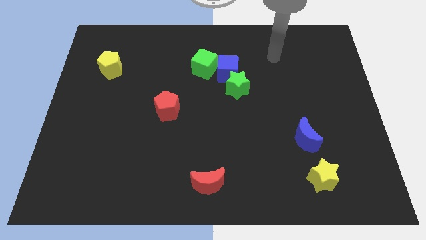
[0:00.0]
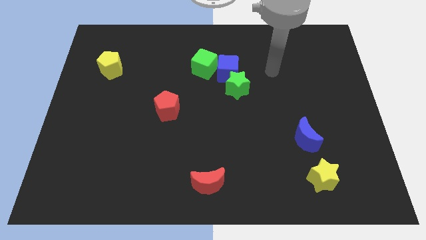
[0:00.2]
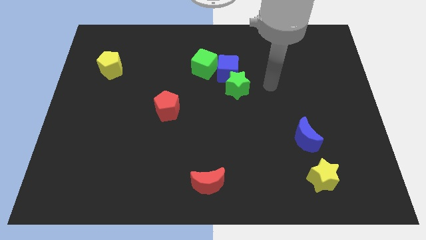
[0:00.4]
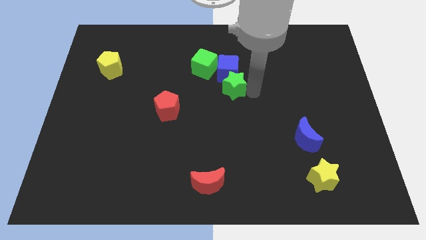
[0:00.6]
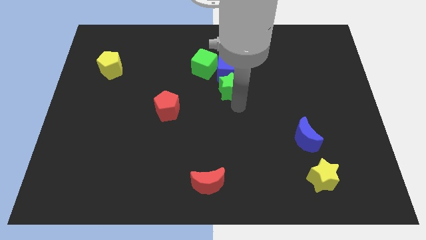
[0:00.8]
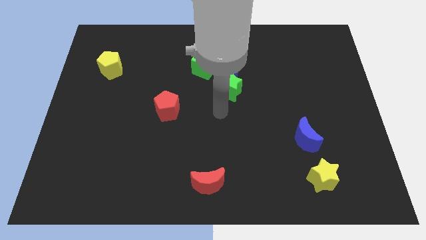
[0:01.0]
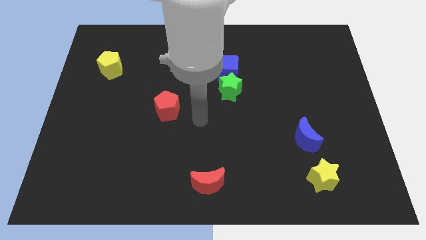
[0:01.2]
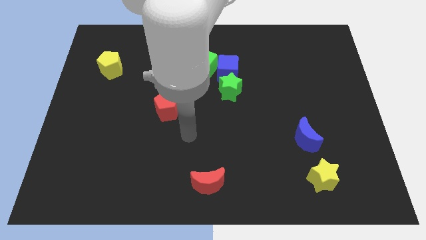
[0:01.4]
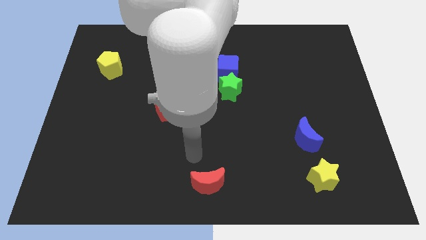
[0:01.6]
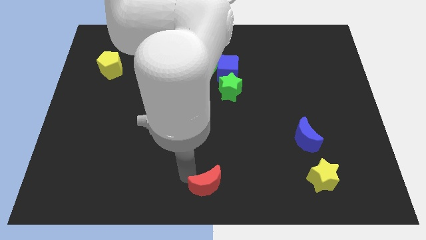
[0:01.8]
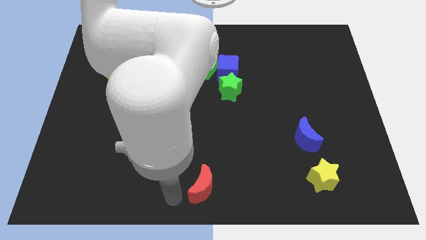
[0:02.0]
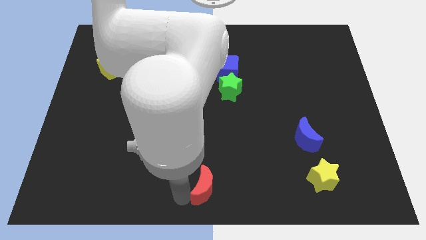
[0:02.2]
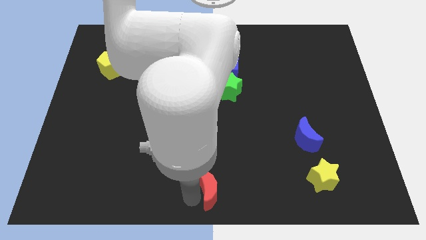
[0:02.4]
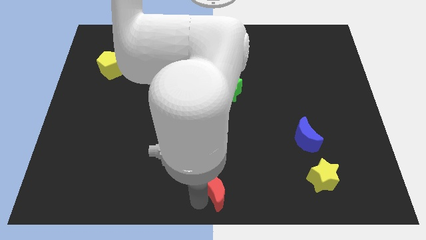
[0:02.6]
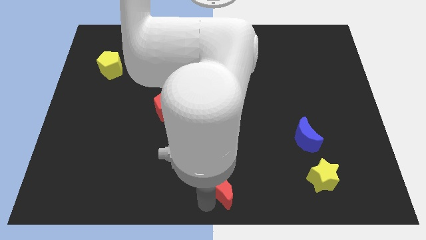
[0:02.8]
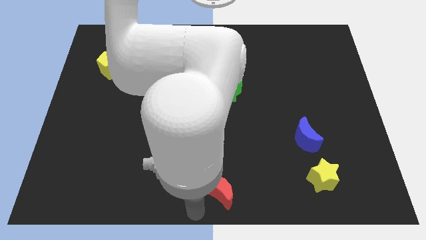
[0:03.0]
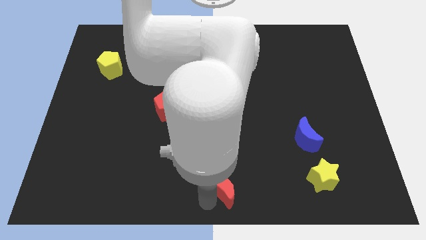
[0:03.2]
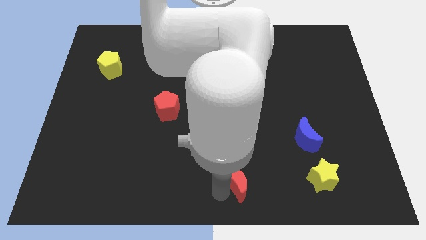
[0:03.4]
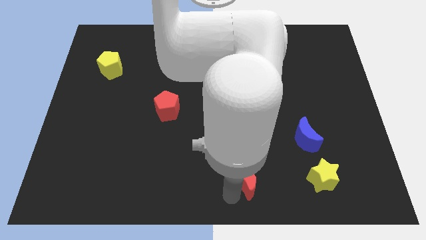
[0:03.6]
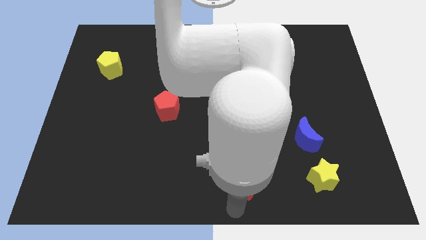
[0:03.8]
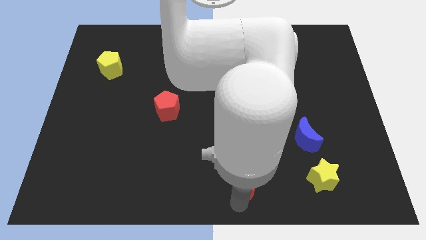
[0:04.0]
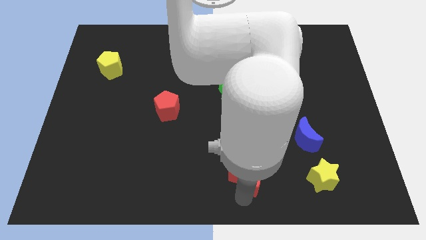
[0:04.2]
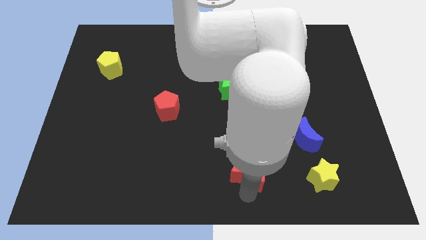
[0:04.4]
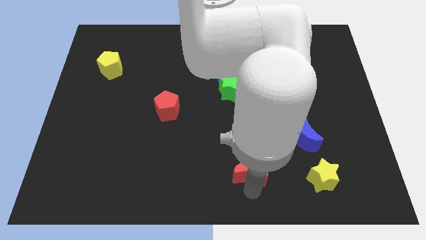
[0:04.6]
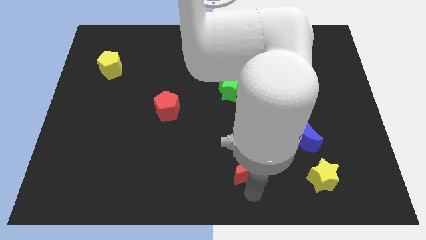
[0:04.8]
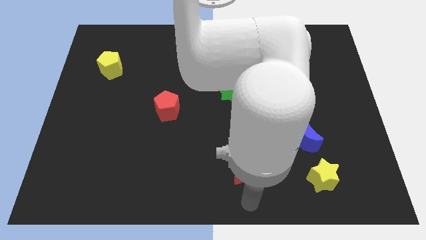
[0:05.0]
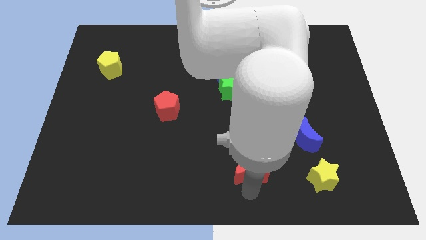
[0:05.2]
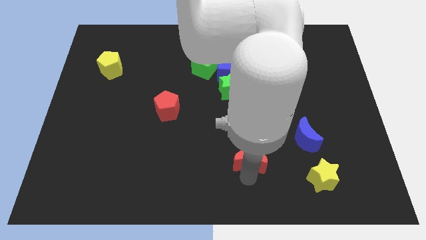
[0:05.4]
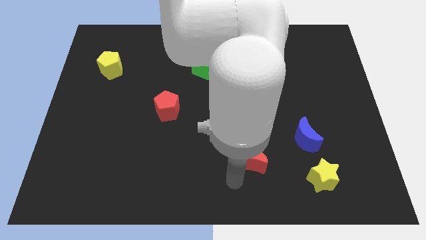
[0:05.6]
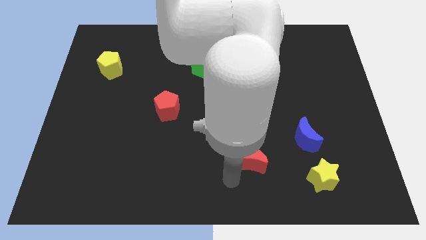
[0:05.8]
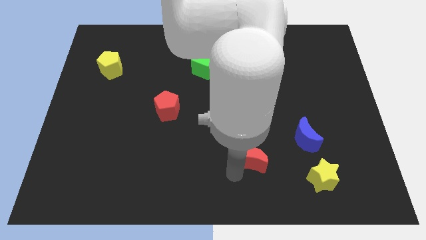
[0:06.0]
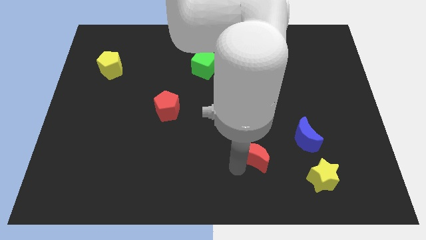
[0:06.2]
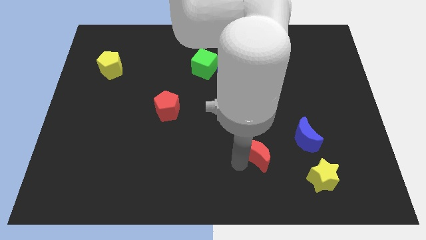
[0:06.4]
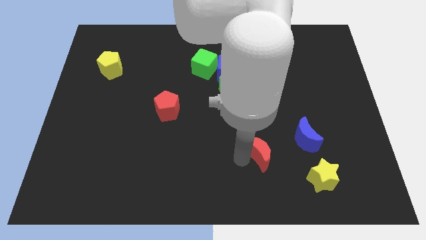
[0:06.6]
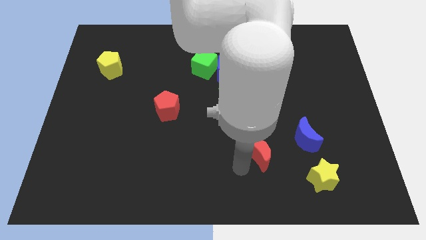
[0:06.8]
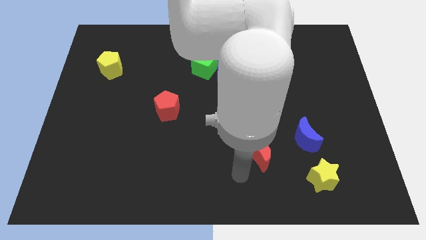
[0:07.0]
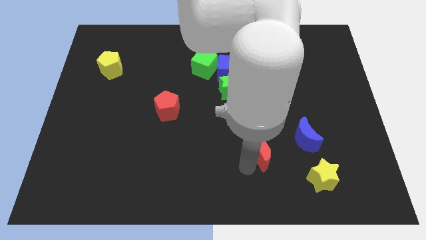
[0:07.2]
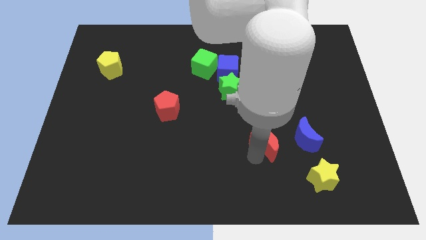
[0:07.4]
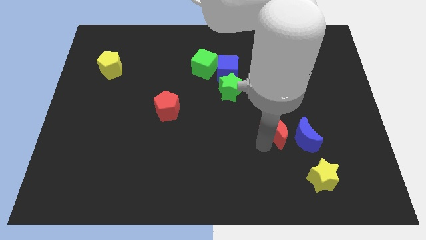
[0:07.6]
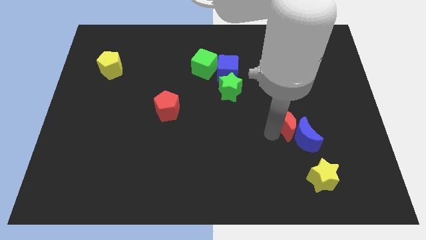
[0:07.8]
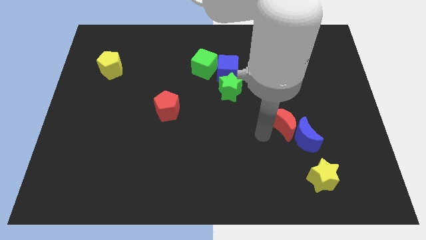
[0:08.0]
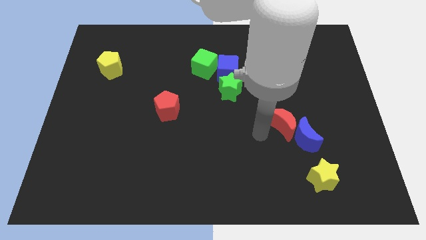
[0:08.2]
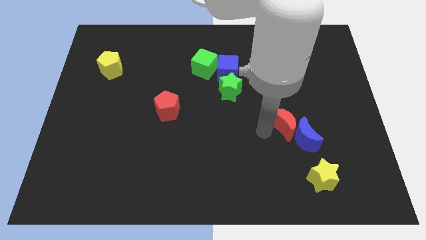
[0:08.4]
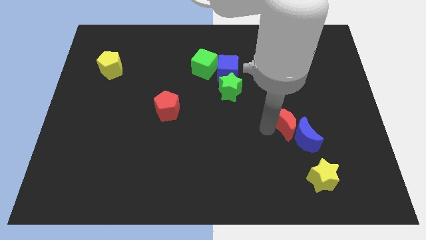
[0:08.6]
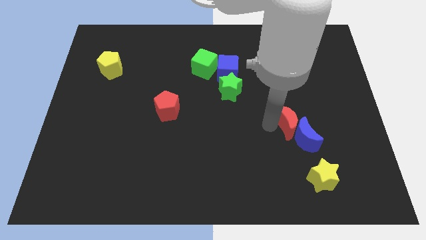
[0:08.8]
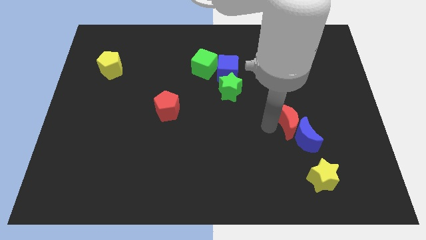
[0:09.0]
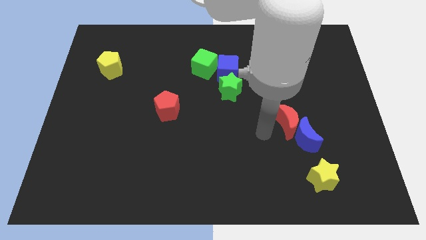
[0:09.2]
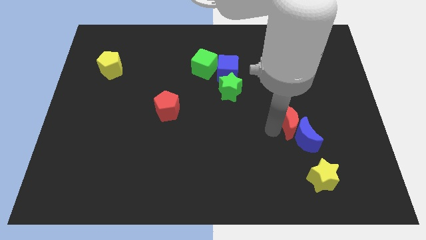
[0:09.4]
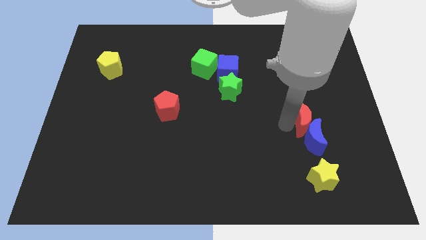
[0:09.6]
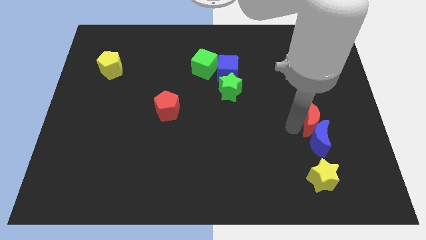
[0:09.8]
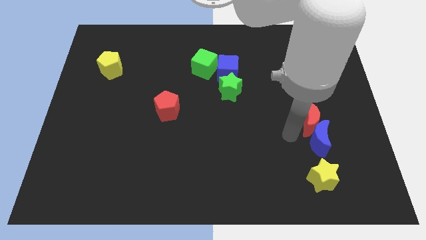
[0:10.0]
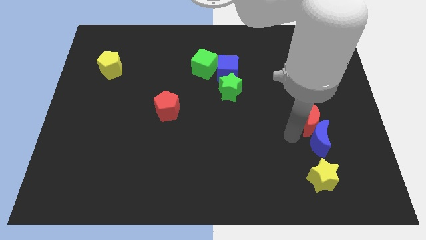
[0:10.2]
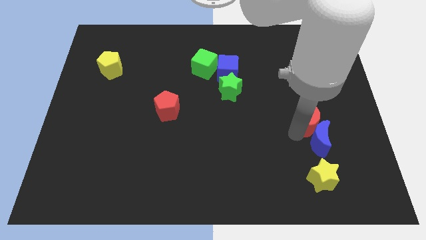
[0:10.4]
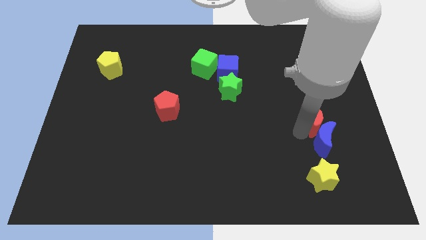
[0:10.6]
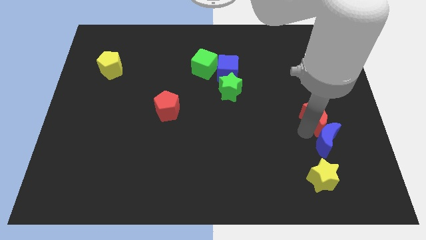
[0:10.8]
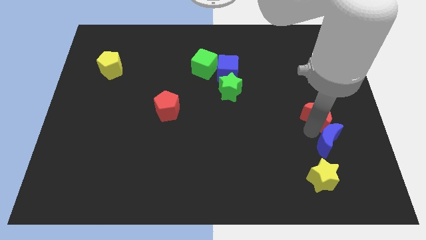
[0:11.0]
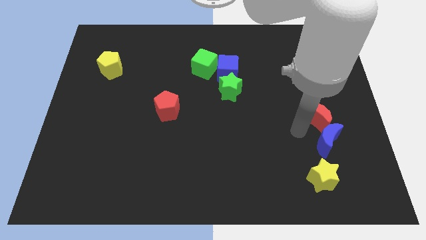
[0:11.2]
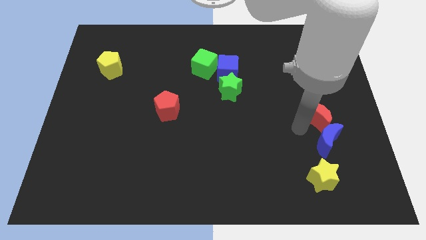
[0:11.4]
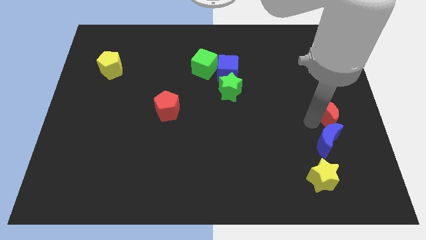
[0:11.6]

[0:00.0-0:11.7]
move the red moon to the right side
